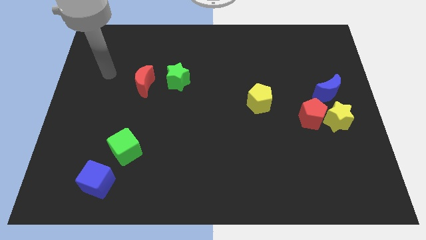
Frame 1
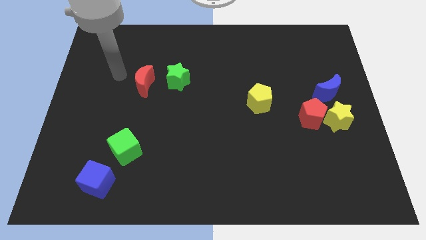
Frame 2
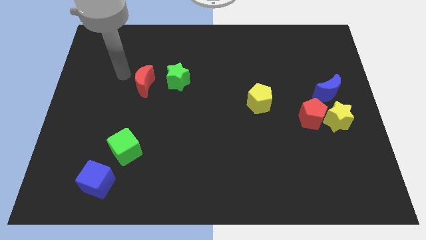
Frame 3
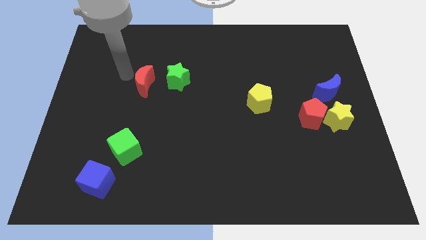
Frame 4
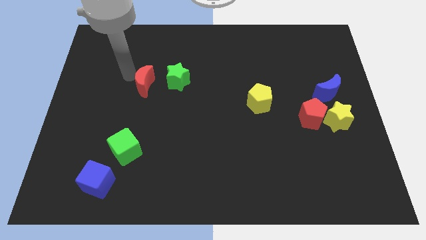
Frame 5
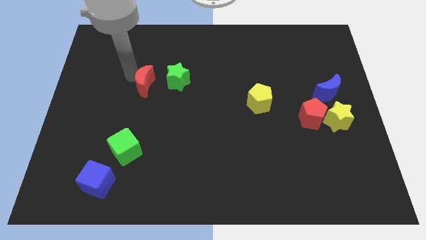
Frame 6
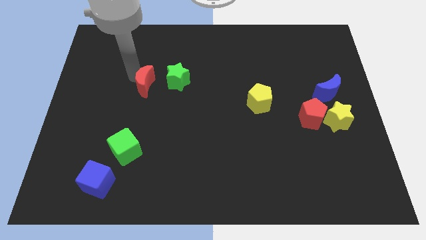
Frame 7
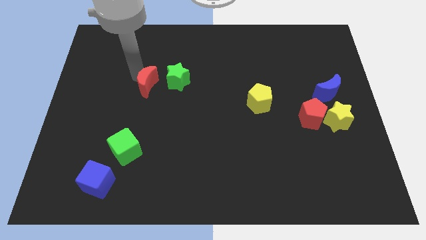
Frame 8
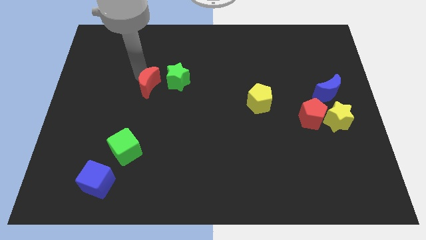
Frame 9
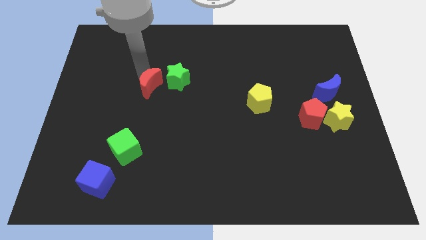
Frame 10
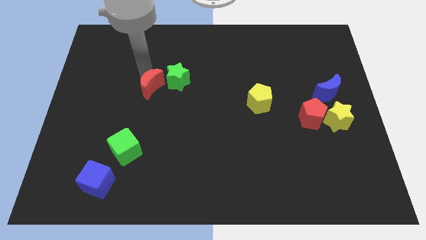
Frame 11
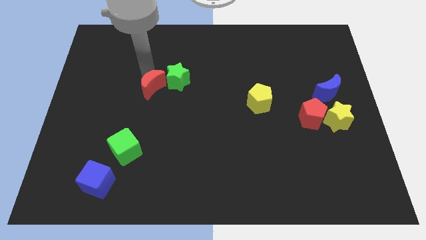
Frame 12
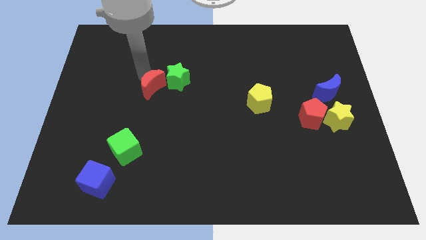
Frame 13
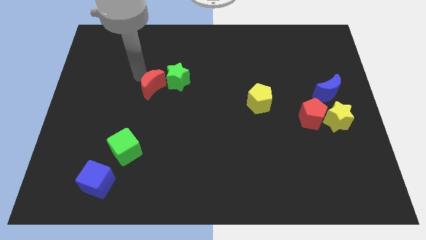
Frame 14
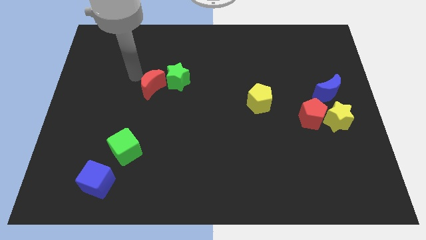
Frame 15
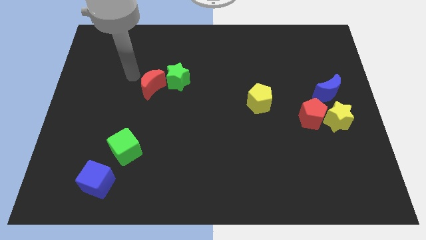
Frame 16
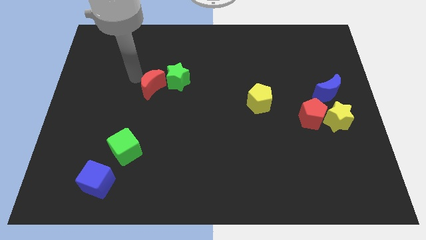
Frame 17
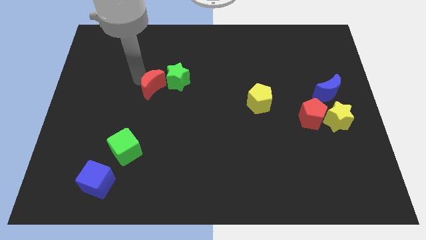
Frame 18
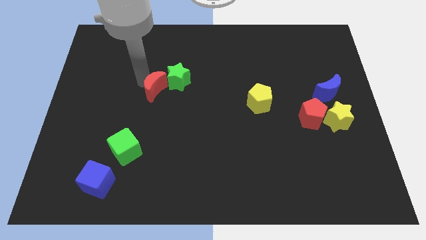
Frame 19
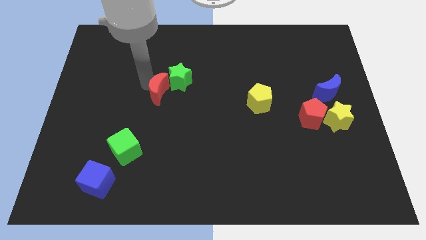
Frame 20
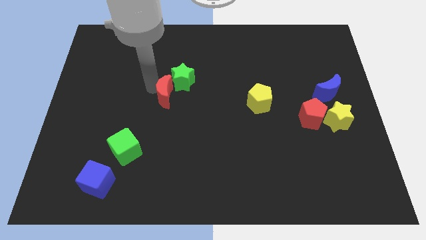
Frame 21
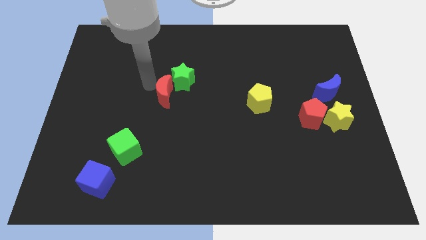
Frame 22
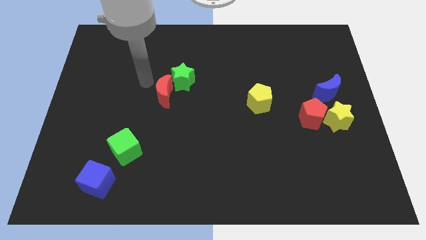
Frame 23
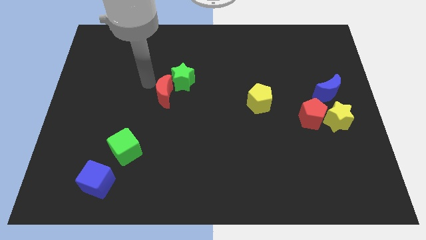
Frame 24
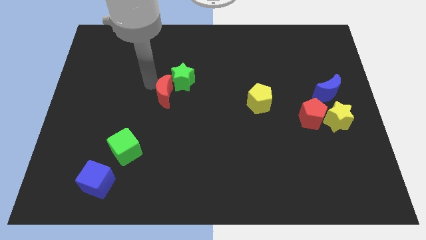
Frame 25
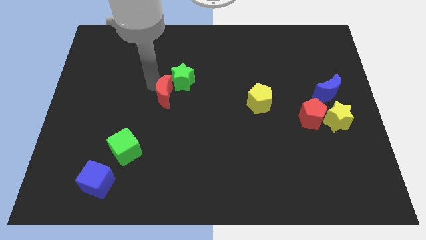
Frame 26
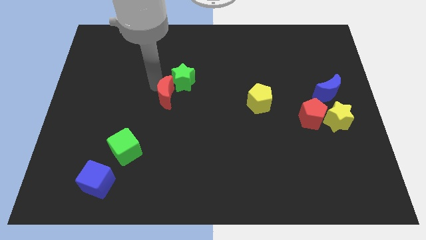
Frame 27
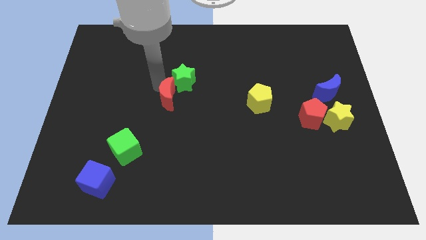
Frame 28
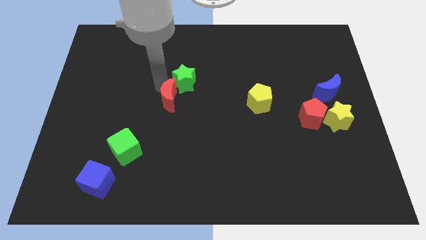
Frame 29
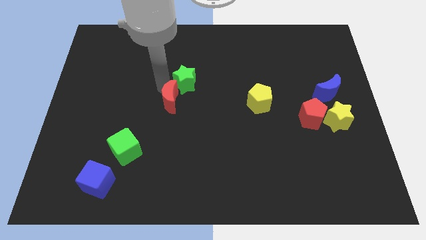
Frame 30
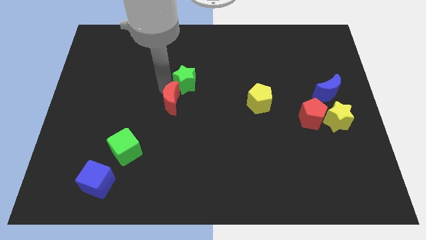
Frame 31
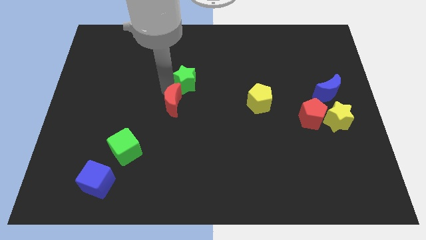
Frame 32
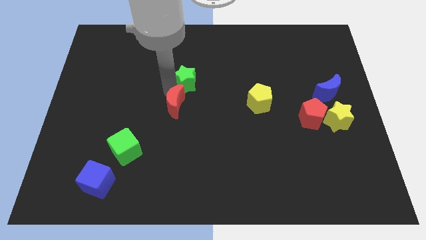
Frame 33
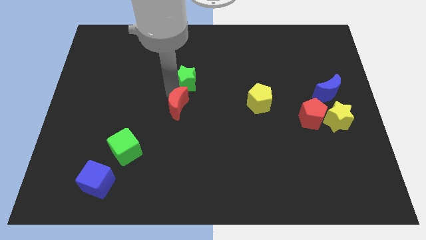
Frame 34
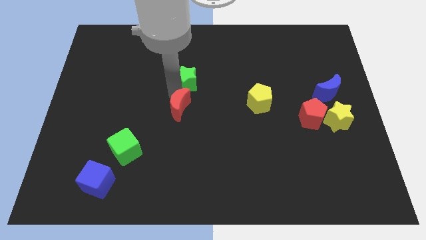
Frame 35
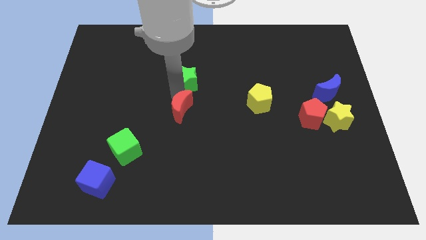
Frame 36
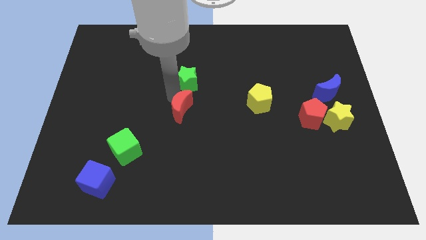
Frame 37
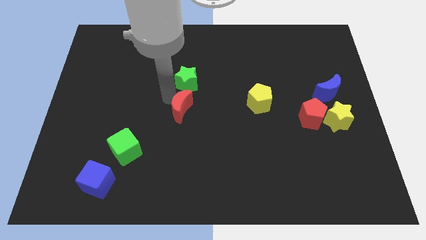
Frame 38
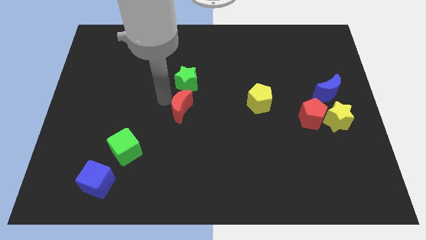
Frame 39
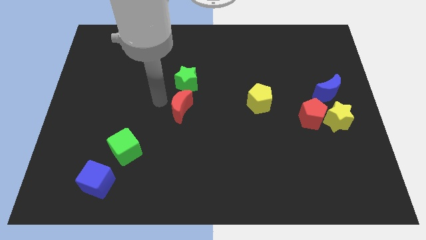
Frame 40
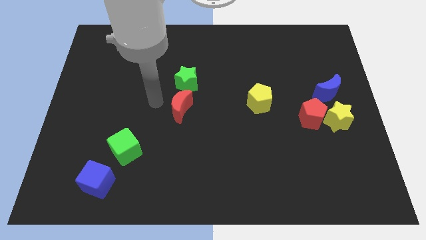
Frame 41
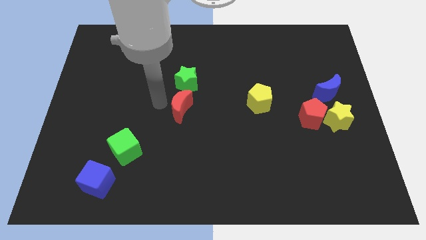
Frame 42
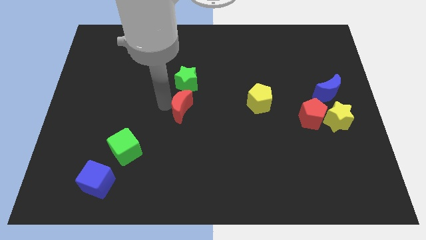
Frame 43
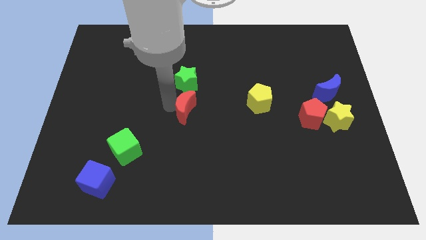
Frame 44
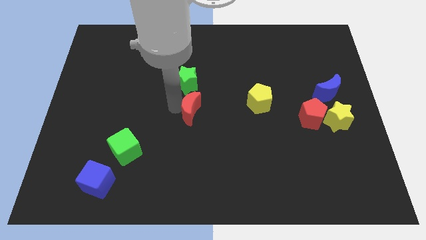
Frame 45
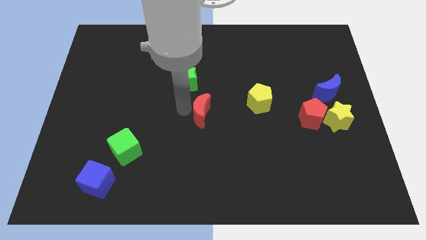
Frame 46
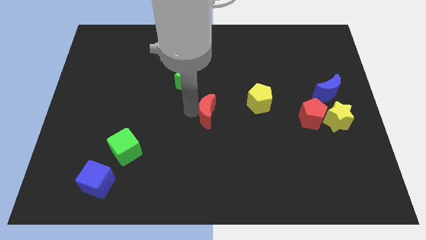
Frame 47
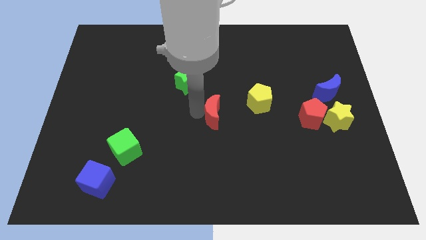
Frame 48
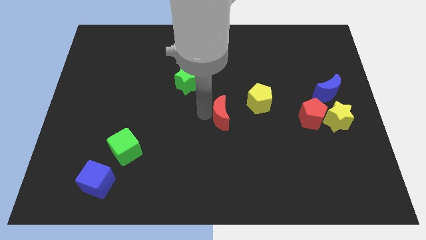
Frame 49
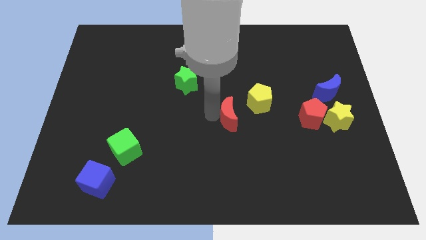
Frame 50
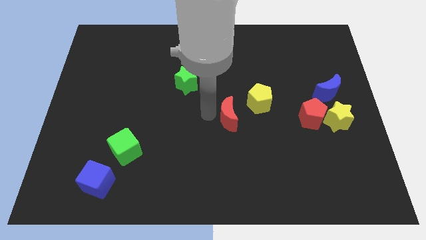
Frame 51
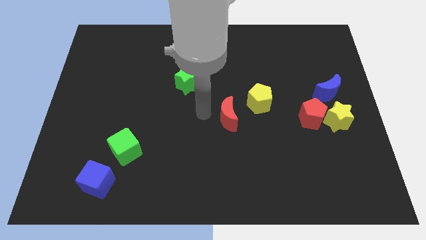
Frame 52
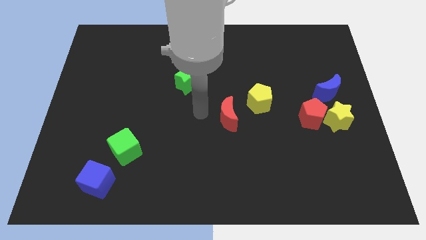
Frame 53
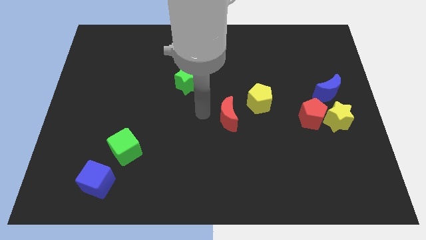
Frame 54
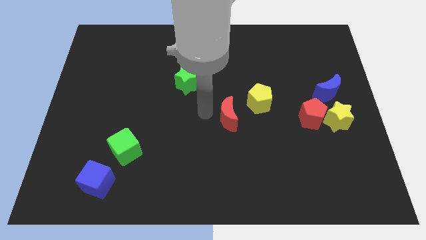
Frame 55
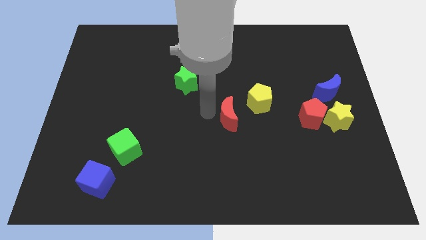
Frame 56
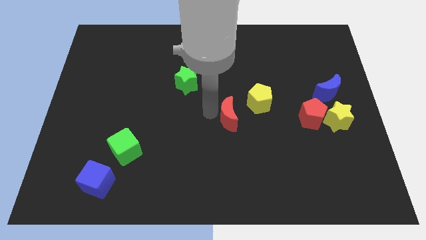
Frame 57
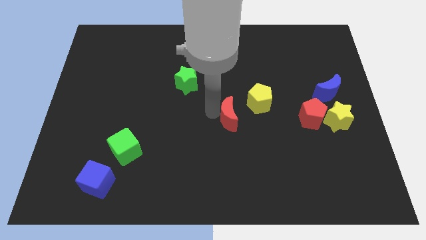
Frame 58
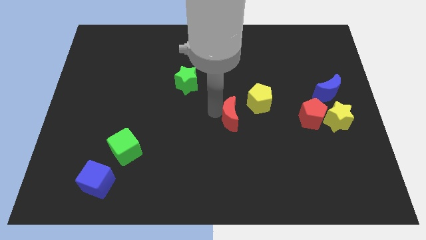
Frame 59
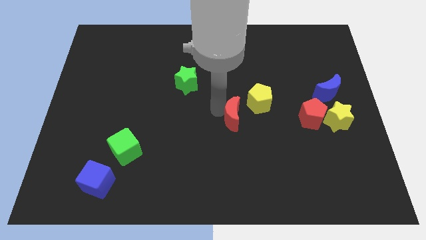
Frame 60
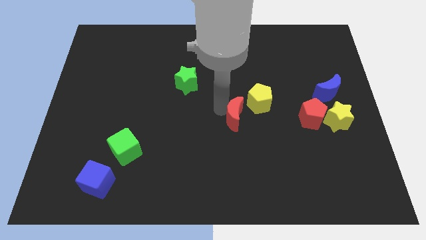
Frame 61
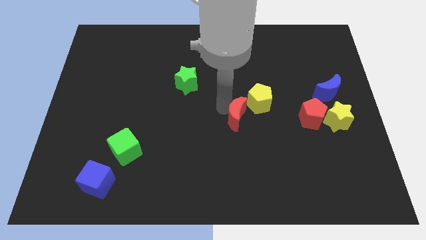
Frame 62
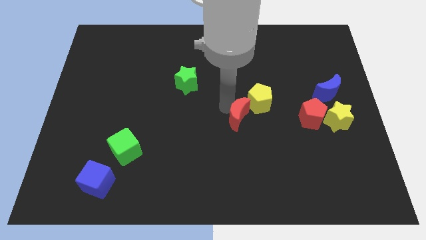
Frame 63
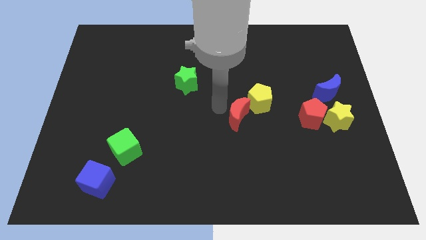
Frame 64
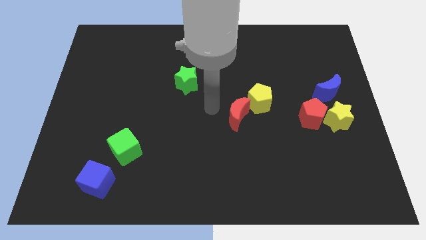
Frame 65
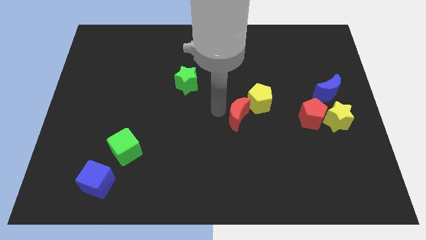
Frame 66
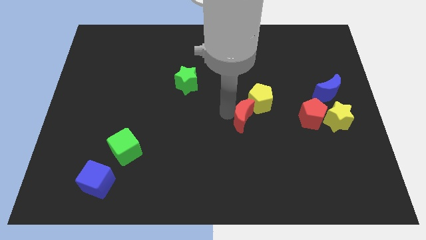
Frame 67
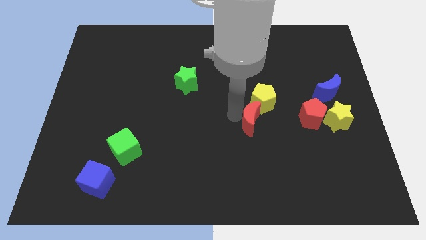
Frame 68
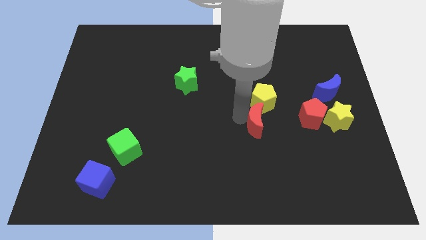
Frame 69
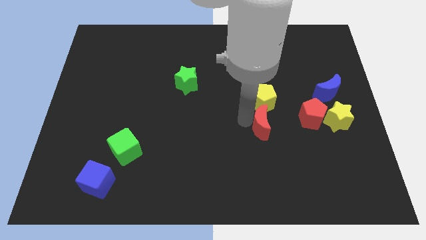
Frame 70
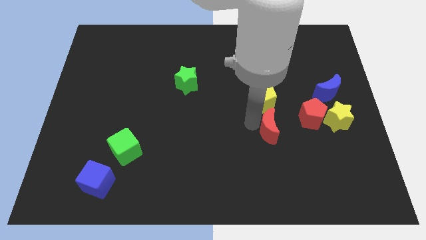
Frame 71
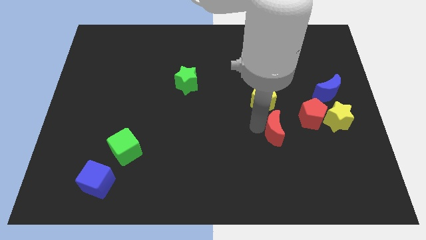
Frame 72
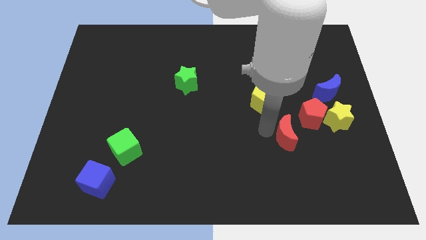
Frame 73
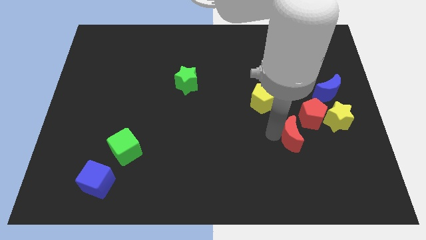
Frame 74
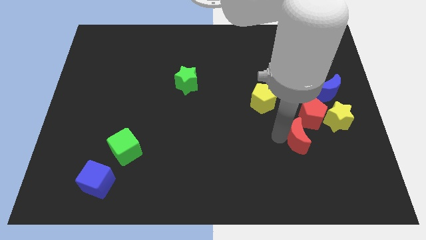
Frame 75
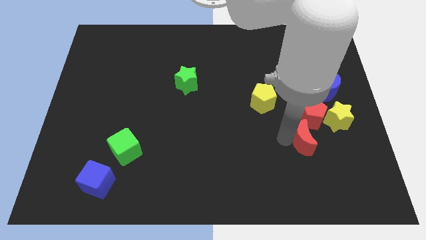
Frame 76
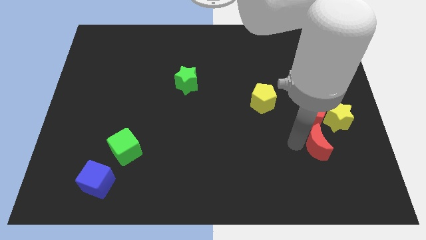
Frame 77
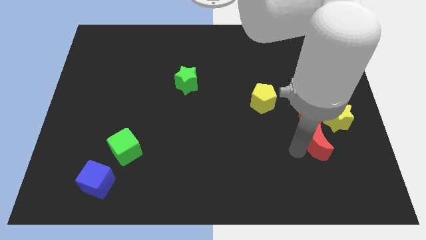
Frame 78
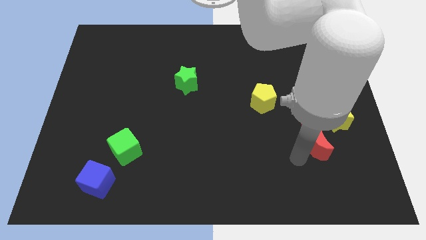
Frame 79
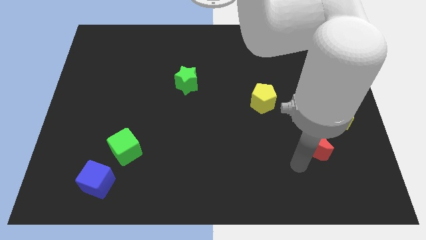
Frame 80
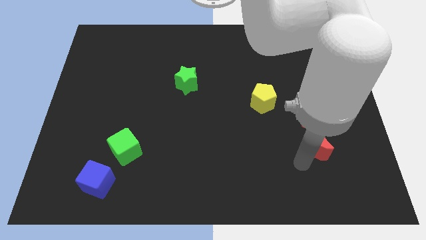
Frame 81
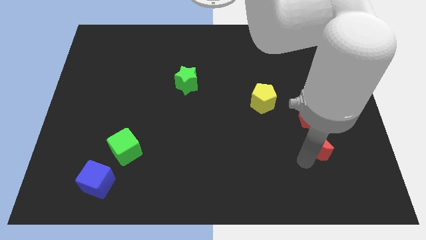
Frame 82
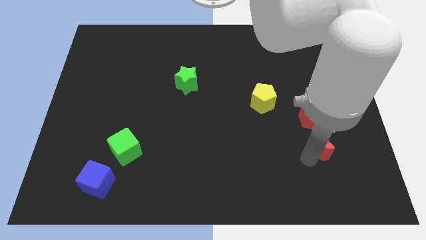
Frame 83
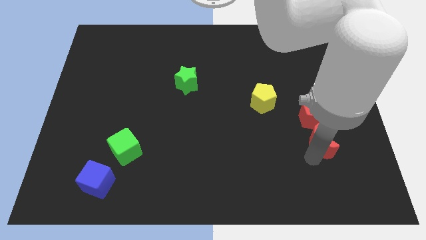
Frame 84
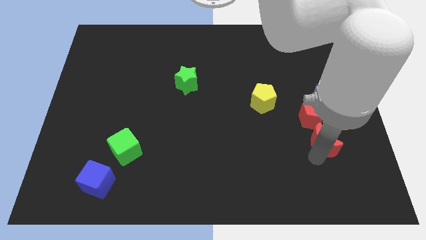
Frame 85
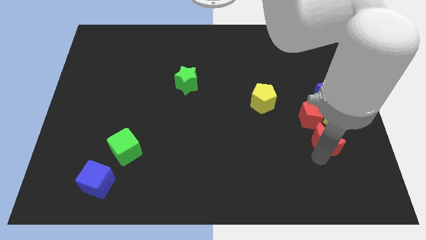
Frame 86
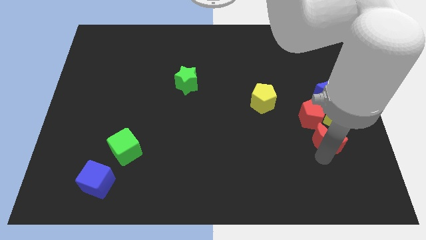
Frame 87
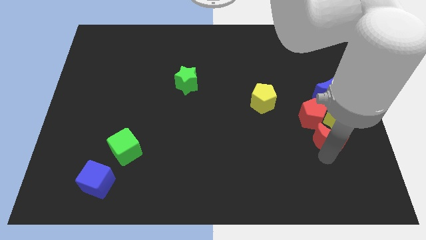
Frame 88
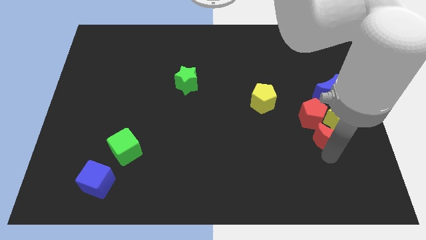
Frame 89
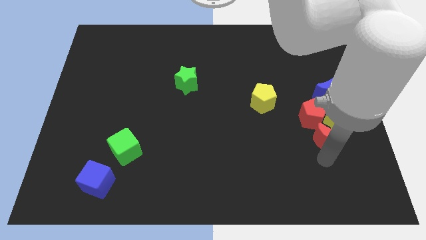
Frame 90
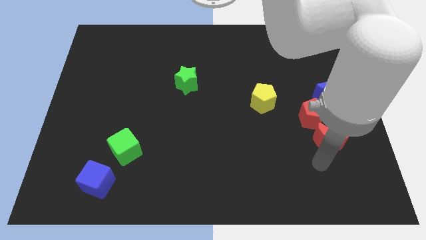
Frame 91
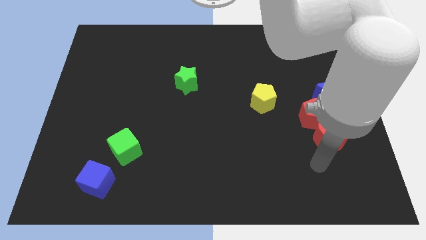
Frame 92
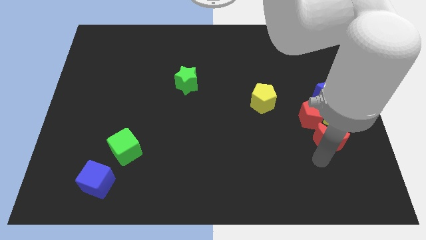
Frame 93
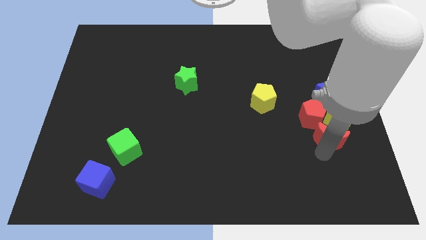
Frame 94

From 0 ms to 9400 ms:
put the red moon to the yellow star
